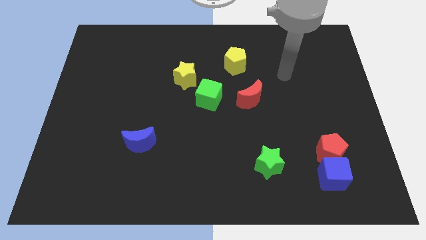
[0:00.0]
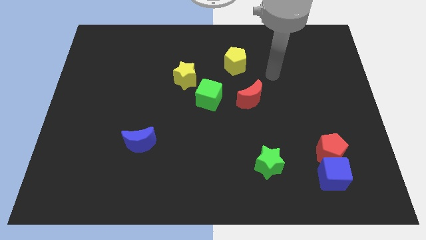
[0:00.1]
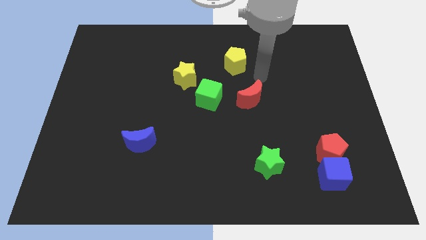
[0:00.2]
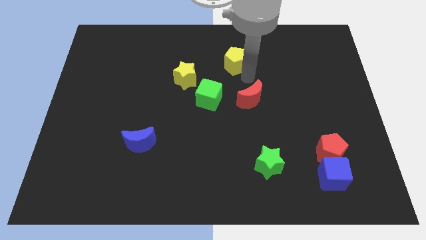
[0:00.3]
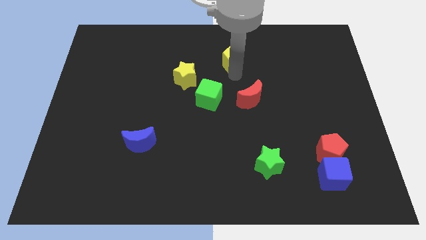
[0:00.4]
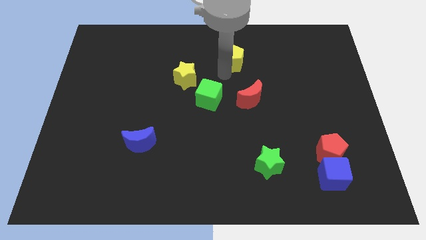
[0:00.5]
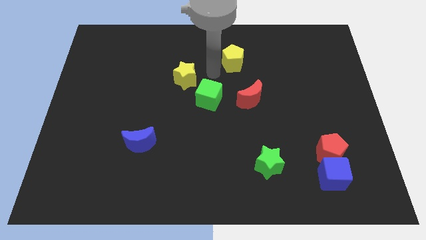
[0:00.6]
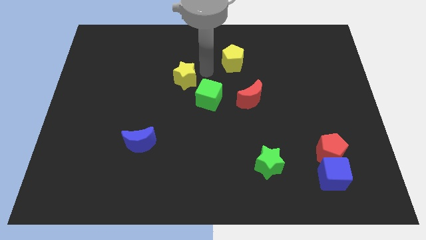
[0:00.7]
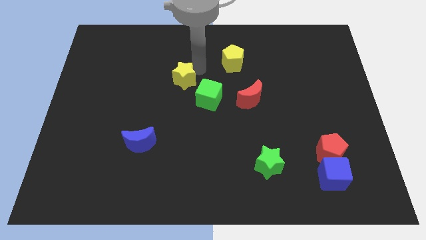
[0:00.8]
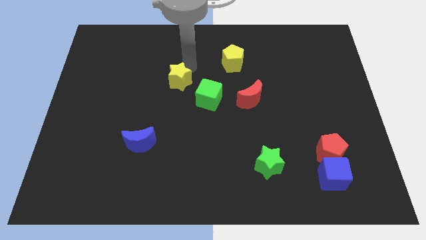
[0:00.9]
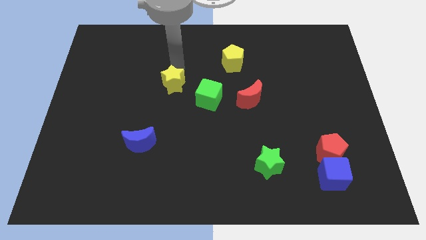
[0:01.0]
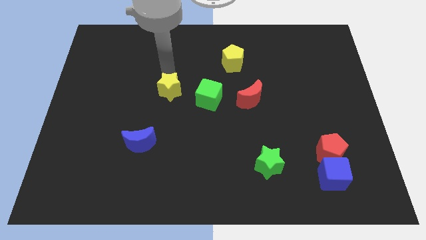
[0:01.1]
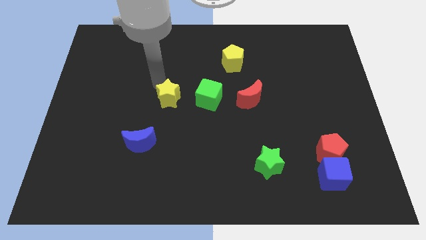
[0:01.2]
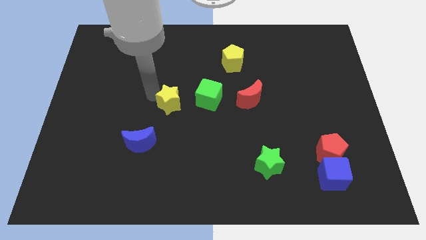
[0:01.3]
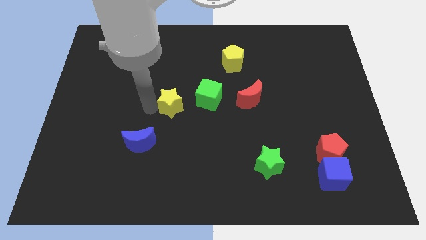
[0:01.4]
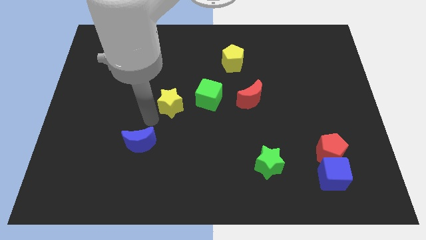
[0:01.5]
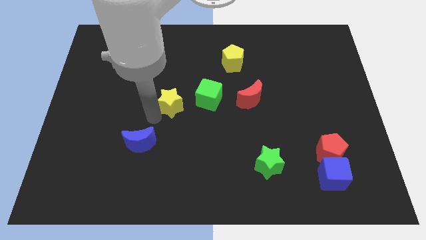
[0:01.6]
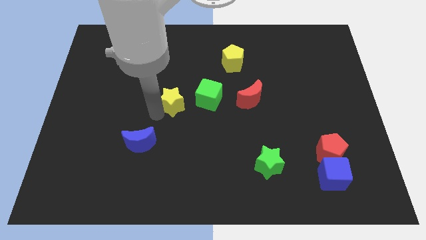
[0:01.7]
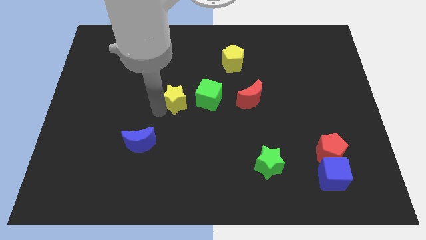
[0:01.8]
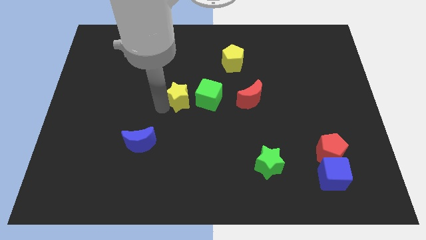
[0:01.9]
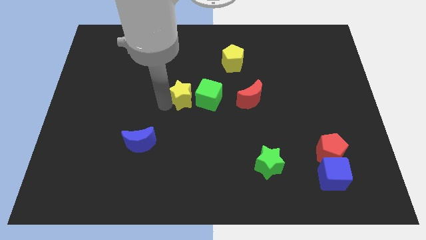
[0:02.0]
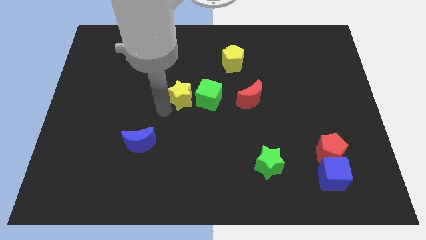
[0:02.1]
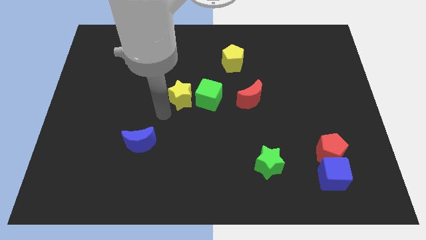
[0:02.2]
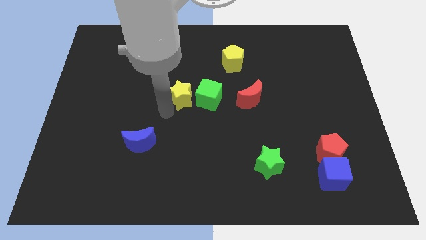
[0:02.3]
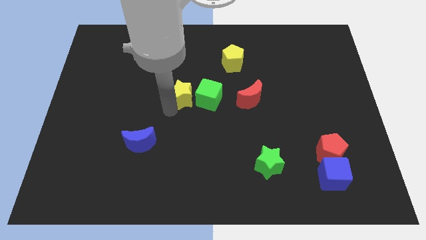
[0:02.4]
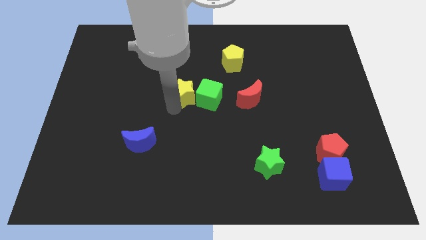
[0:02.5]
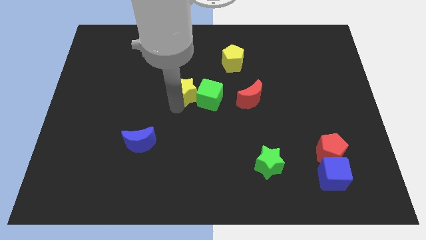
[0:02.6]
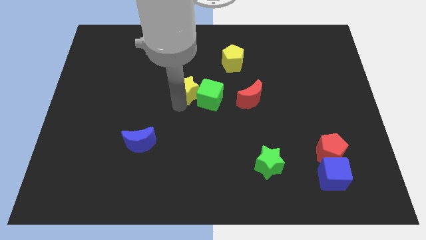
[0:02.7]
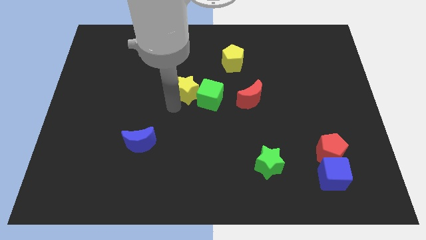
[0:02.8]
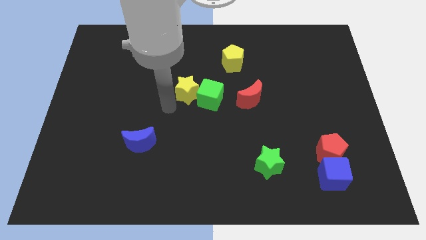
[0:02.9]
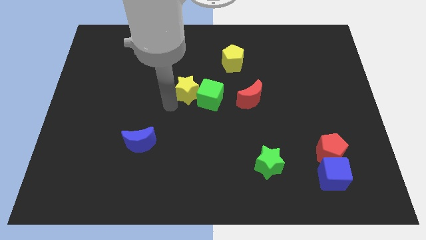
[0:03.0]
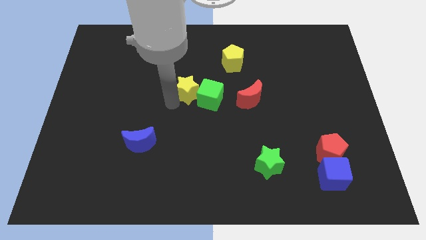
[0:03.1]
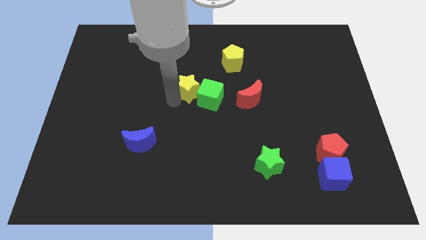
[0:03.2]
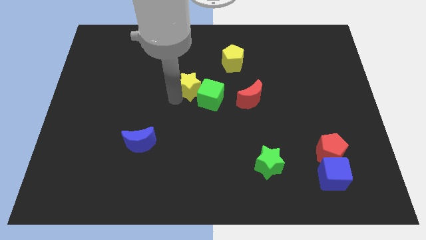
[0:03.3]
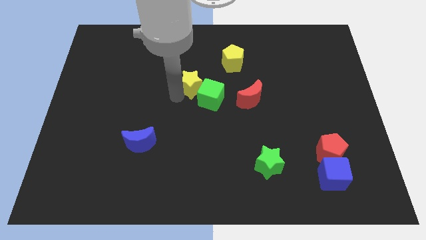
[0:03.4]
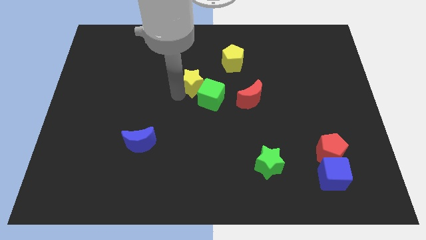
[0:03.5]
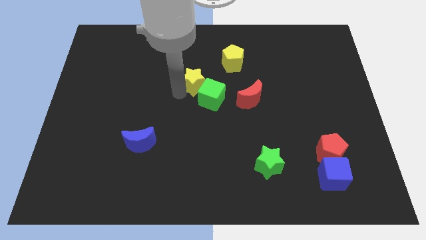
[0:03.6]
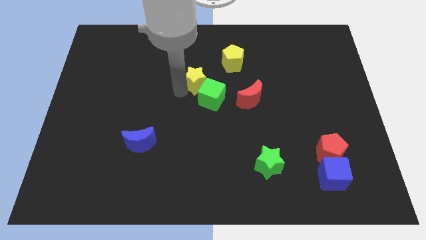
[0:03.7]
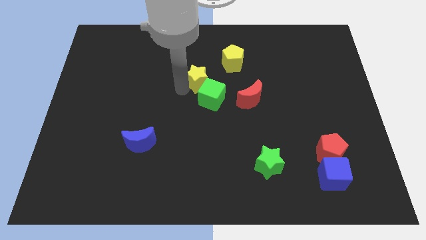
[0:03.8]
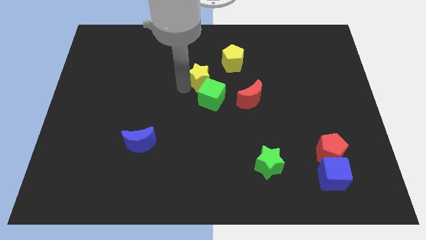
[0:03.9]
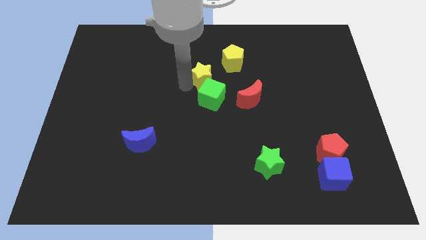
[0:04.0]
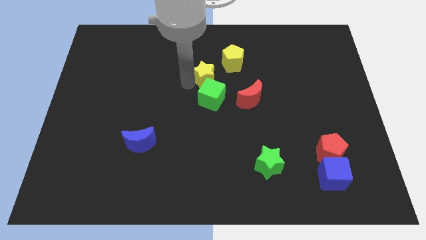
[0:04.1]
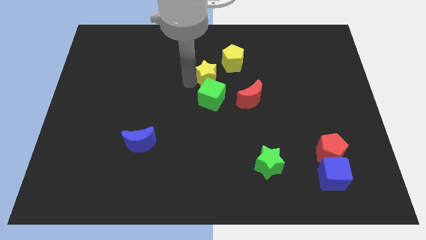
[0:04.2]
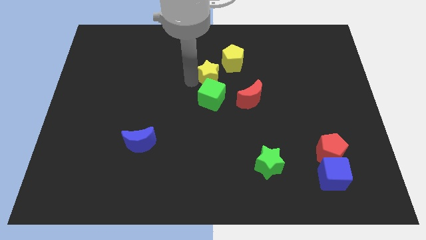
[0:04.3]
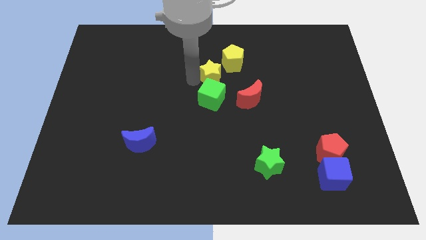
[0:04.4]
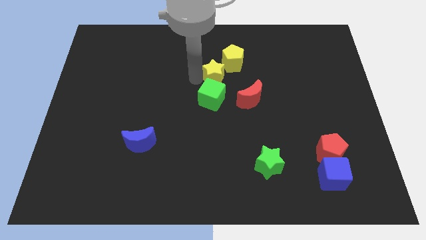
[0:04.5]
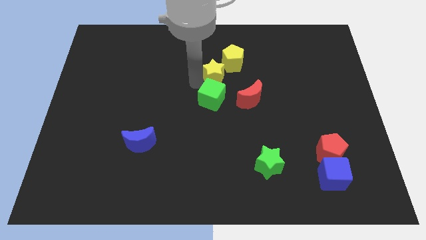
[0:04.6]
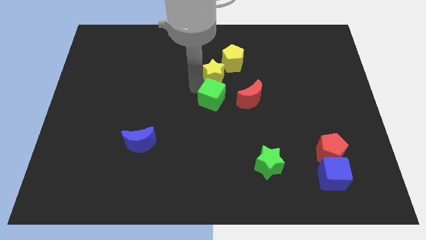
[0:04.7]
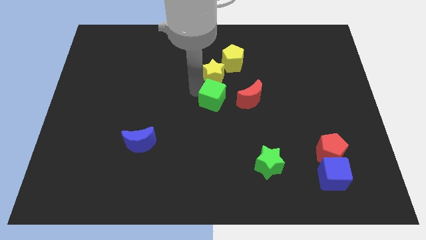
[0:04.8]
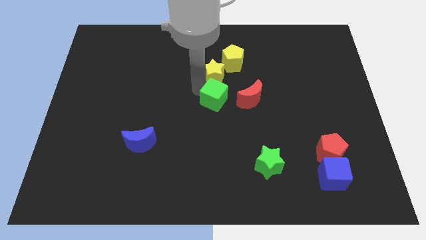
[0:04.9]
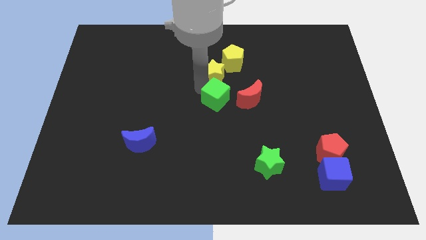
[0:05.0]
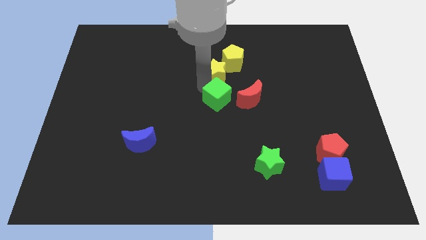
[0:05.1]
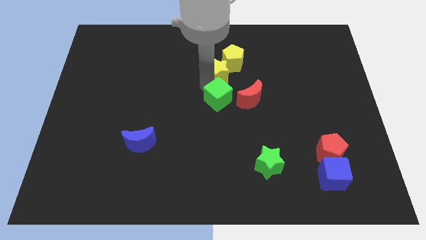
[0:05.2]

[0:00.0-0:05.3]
put the yellow star next to the yellow pentagon

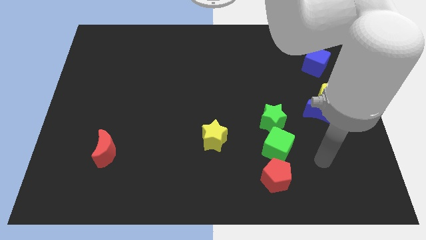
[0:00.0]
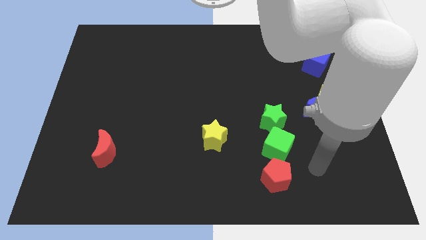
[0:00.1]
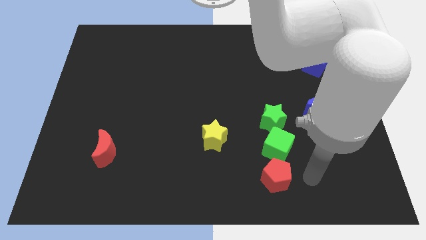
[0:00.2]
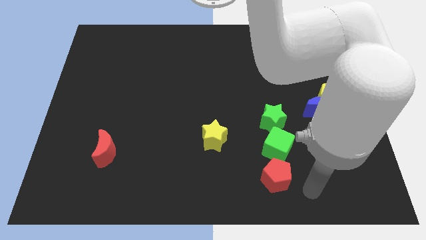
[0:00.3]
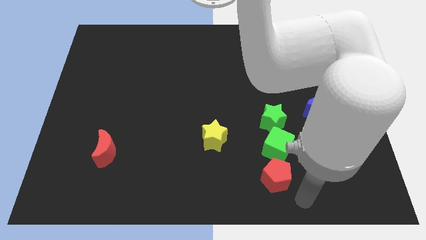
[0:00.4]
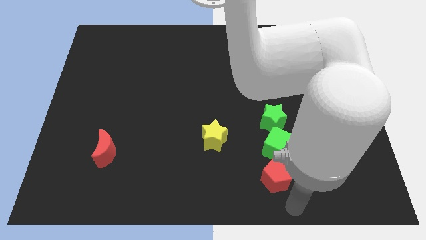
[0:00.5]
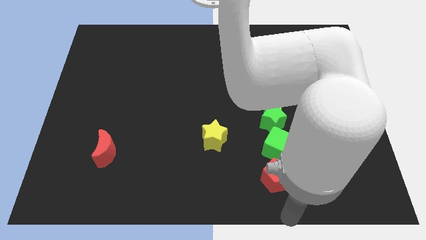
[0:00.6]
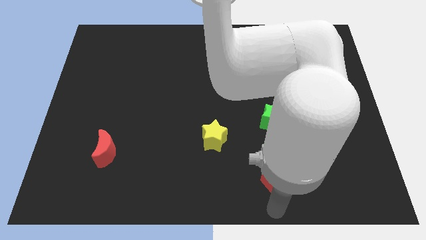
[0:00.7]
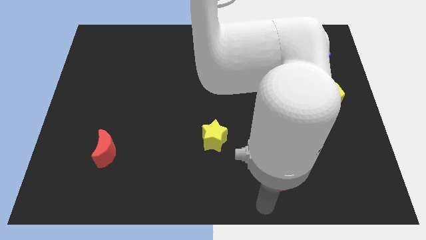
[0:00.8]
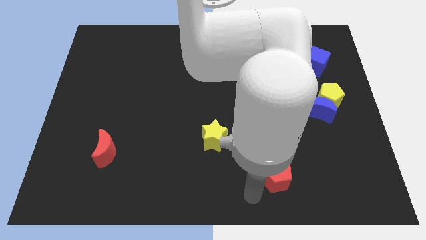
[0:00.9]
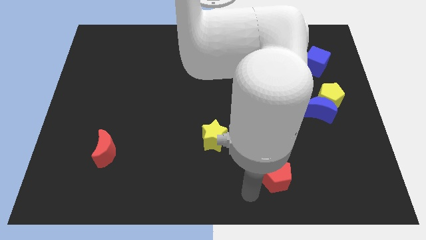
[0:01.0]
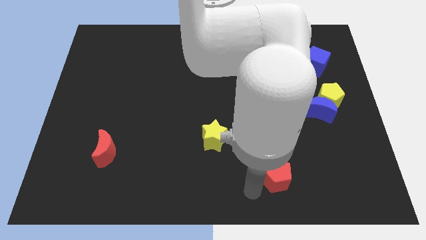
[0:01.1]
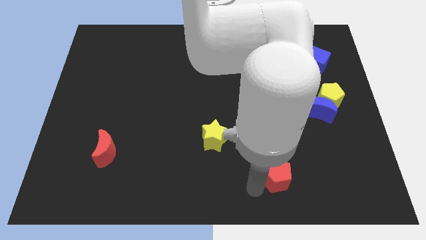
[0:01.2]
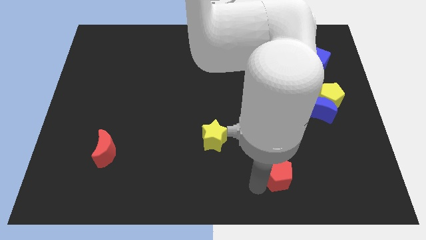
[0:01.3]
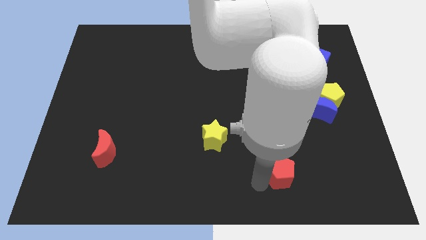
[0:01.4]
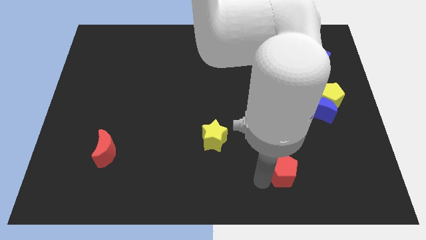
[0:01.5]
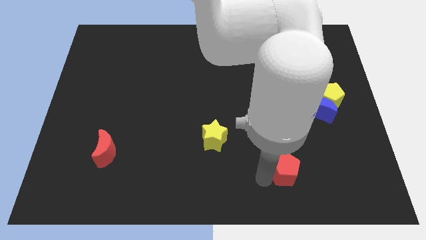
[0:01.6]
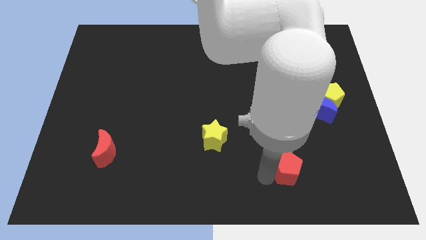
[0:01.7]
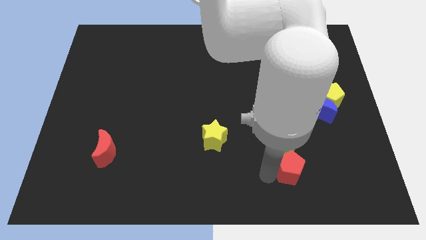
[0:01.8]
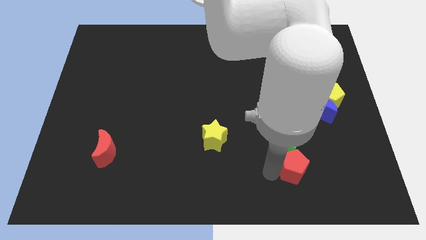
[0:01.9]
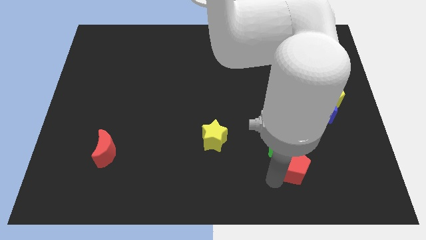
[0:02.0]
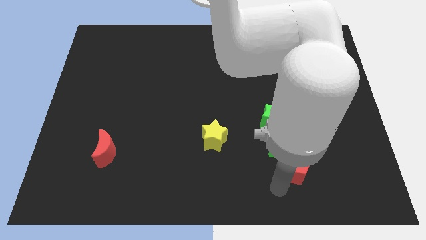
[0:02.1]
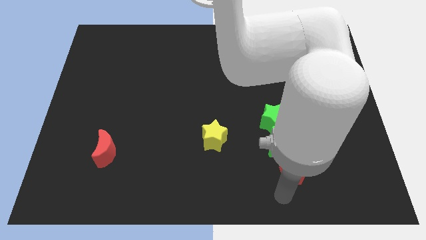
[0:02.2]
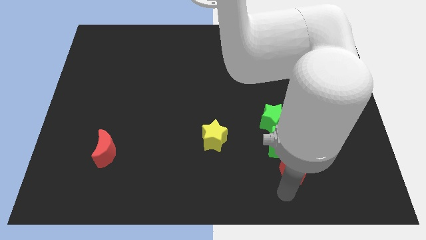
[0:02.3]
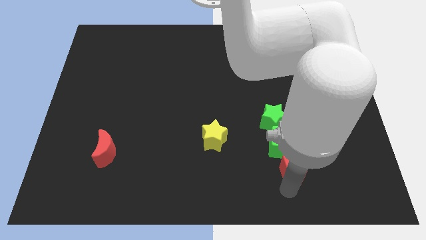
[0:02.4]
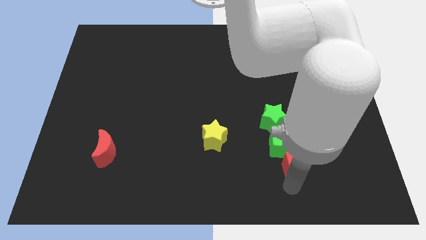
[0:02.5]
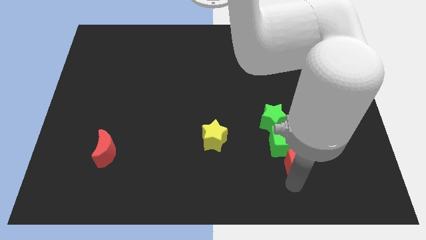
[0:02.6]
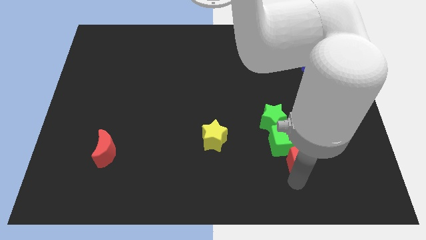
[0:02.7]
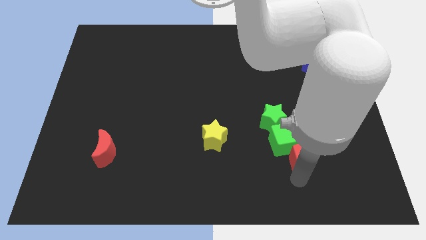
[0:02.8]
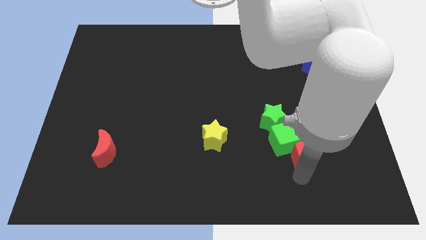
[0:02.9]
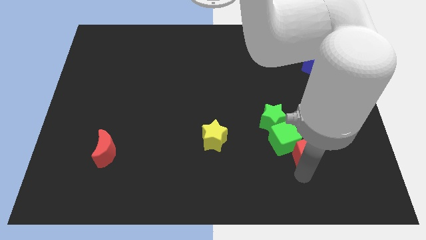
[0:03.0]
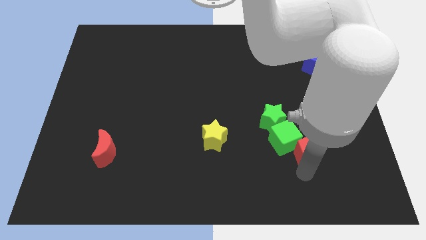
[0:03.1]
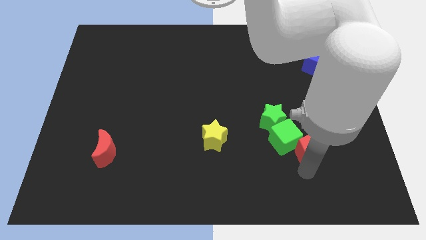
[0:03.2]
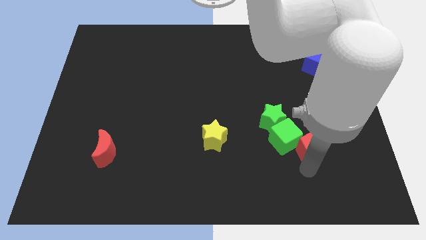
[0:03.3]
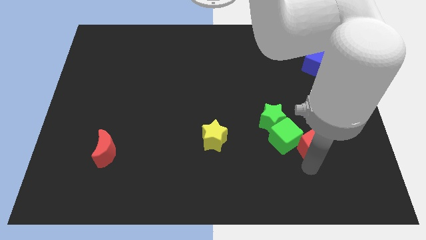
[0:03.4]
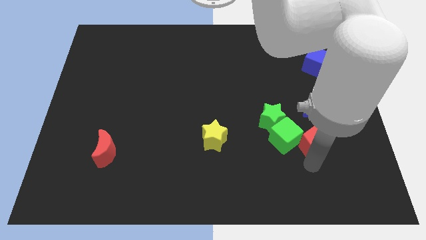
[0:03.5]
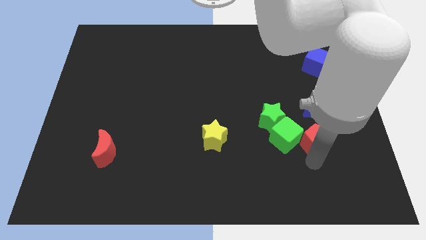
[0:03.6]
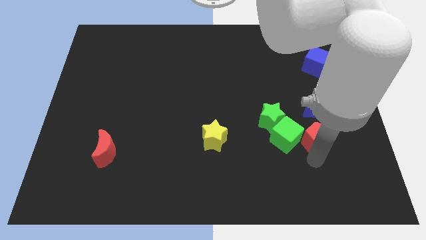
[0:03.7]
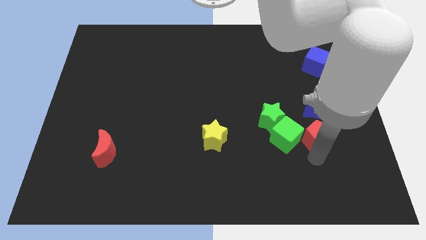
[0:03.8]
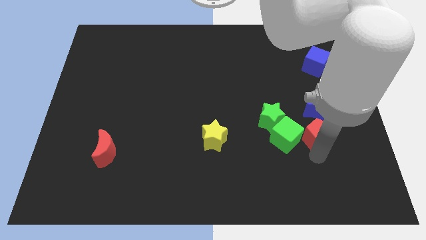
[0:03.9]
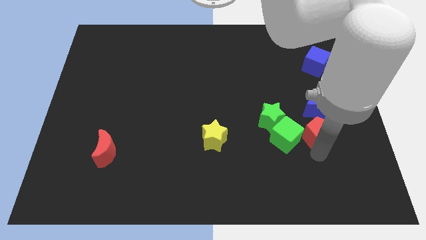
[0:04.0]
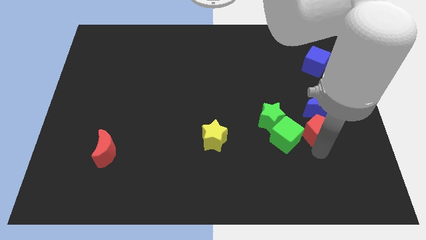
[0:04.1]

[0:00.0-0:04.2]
slide the red pentagon close to the blue moon
